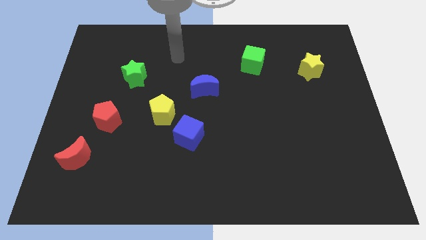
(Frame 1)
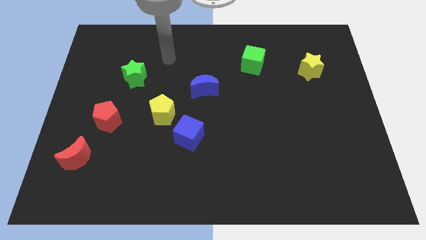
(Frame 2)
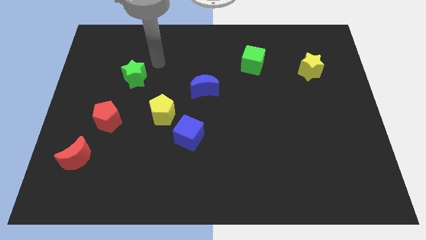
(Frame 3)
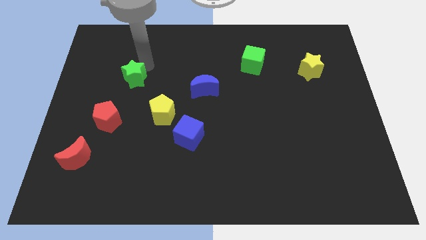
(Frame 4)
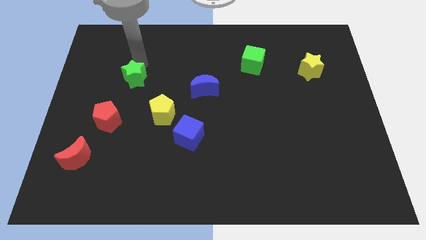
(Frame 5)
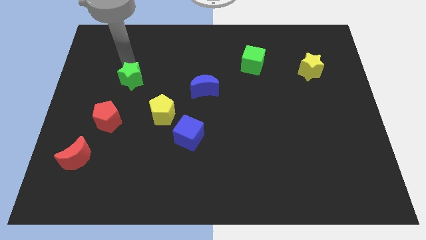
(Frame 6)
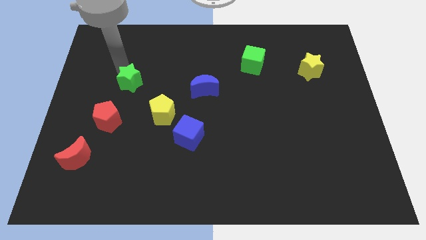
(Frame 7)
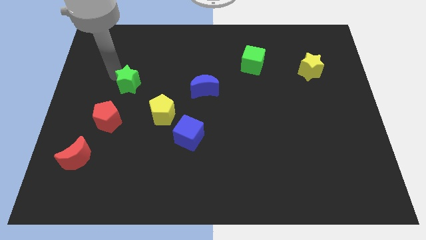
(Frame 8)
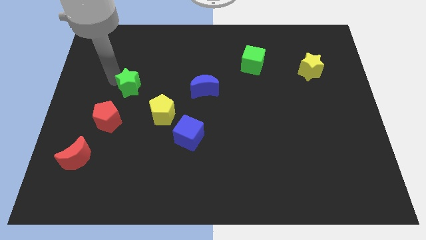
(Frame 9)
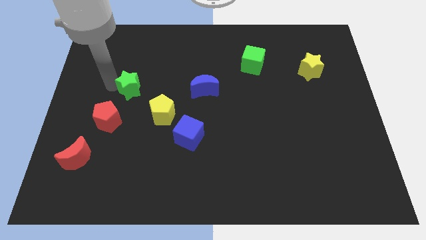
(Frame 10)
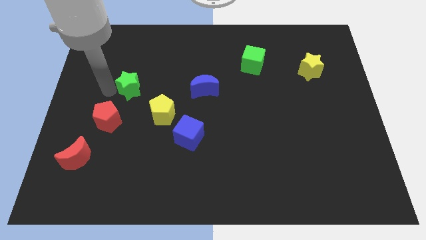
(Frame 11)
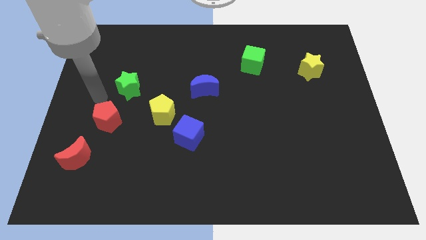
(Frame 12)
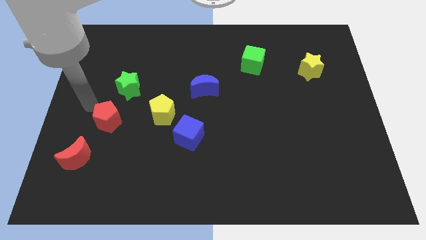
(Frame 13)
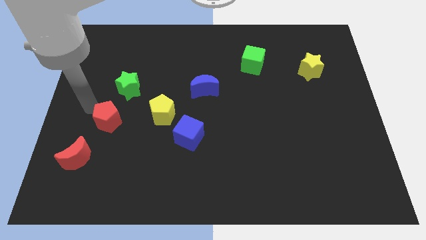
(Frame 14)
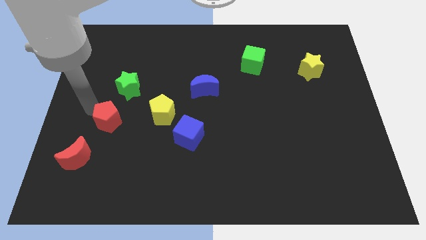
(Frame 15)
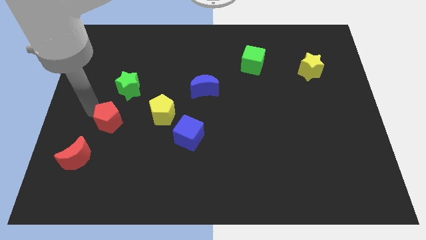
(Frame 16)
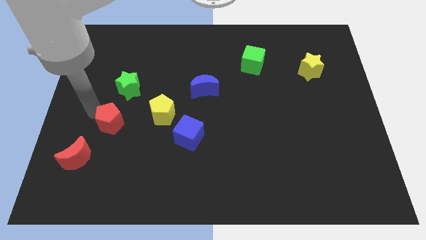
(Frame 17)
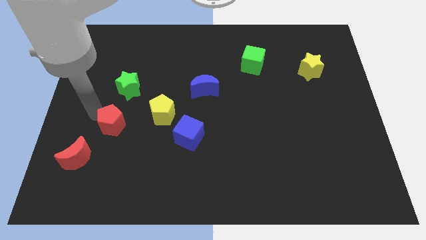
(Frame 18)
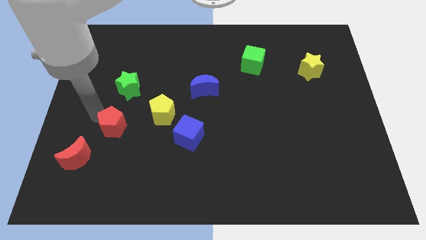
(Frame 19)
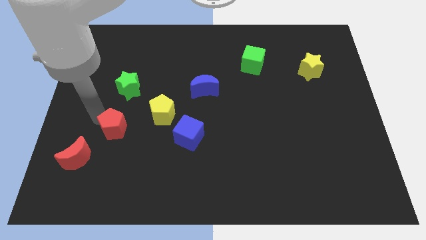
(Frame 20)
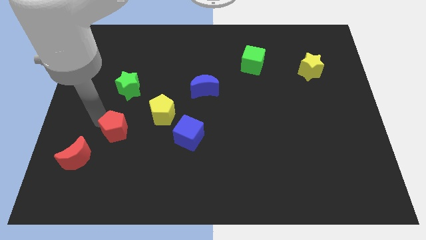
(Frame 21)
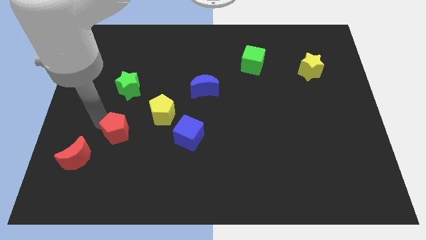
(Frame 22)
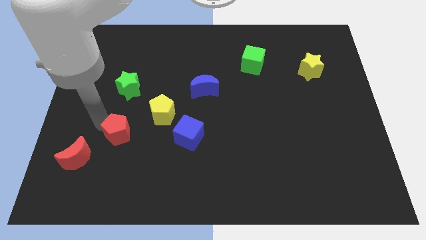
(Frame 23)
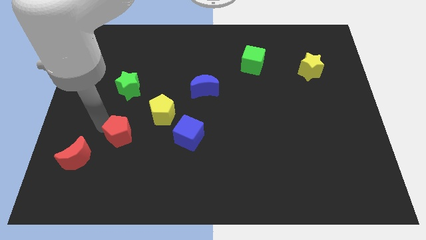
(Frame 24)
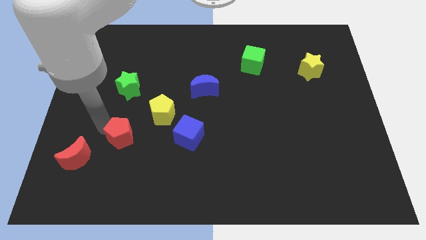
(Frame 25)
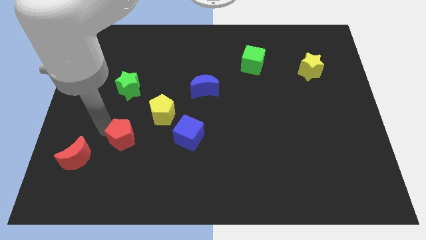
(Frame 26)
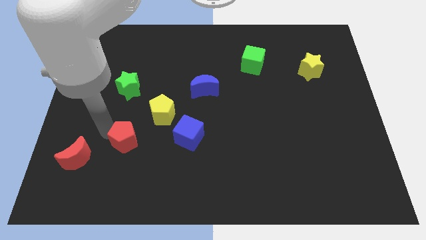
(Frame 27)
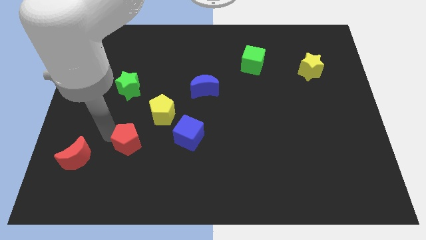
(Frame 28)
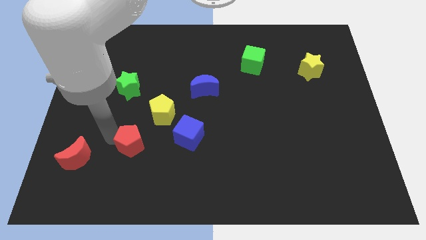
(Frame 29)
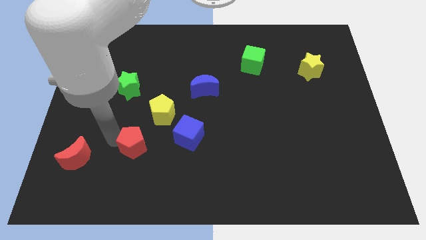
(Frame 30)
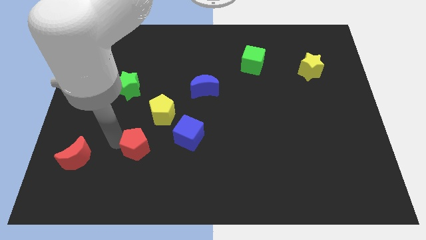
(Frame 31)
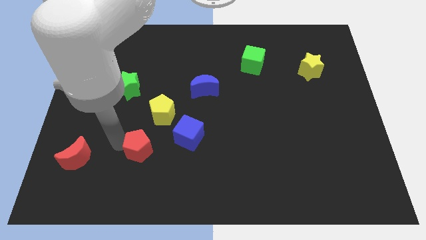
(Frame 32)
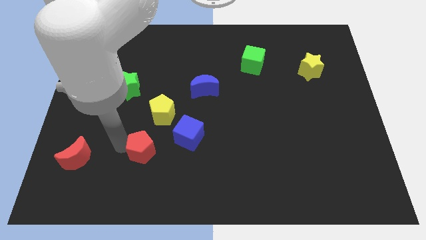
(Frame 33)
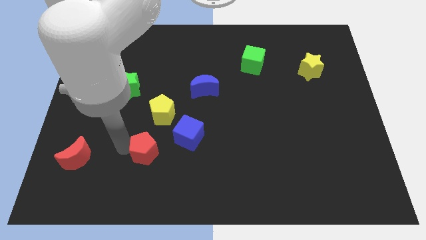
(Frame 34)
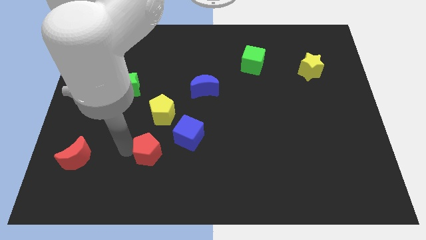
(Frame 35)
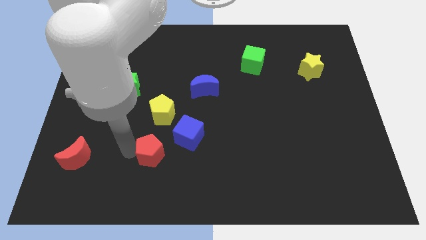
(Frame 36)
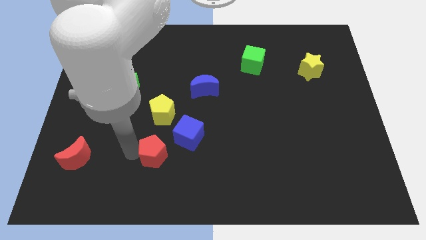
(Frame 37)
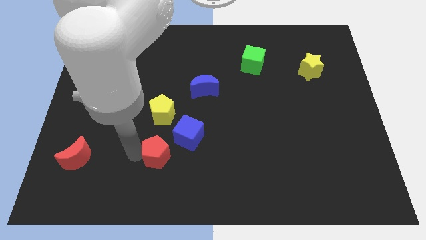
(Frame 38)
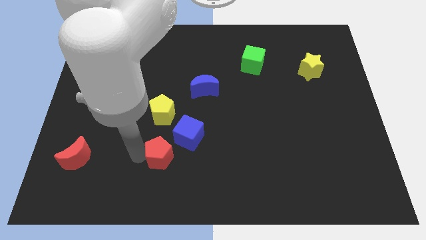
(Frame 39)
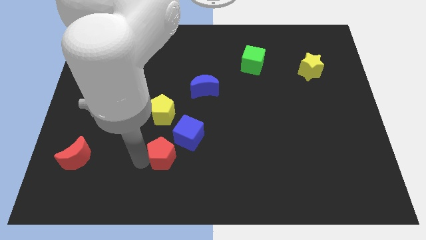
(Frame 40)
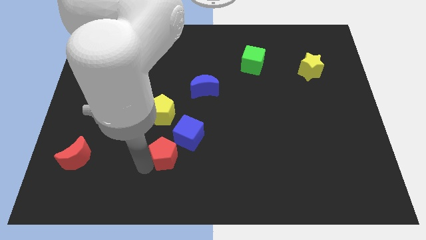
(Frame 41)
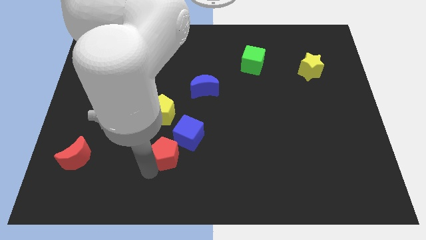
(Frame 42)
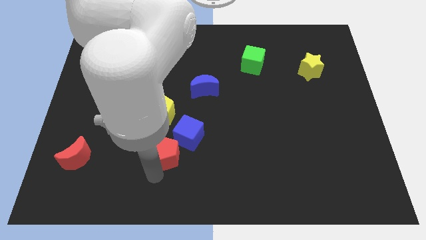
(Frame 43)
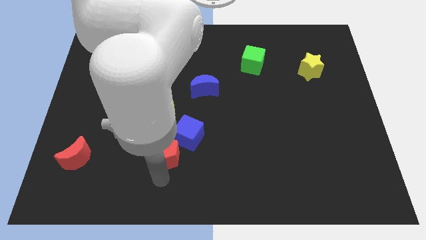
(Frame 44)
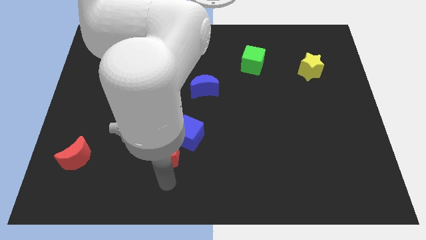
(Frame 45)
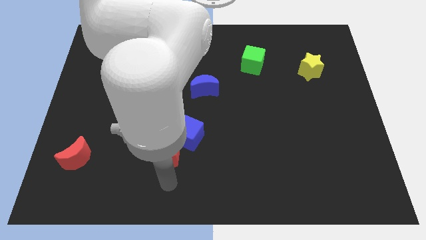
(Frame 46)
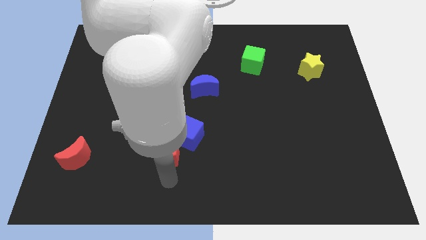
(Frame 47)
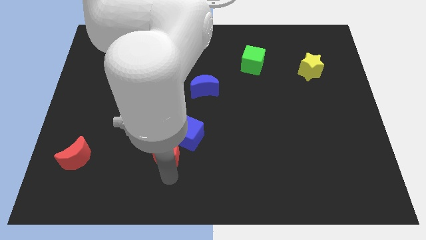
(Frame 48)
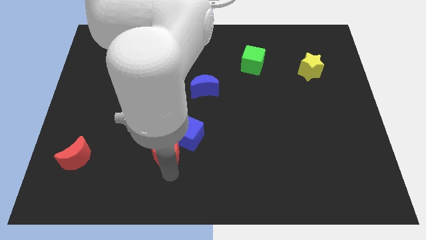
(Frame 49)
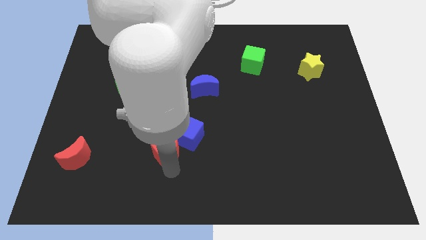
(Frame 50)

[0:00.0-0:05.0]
slide the red pentagon towards the blue cube

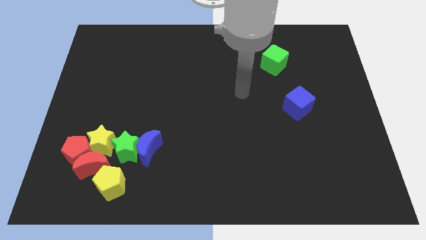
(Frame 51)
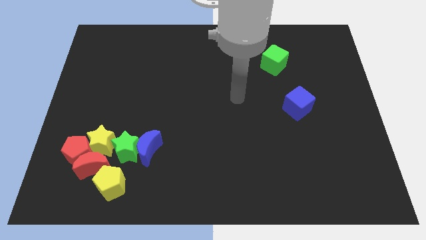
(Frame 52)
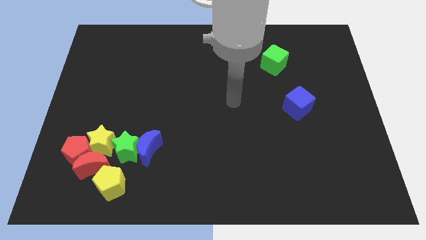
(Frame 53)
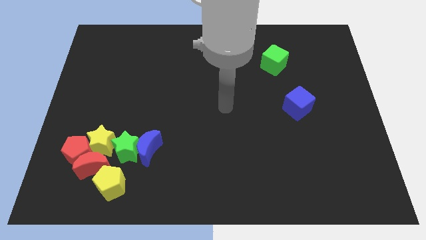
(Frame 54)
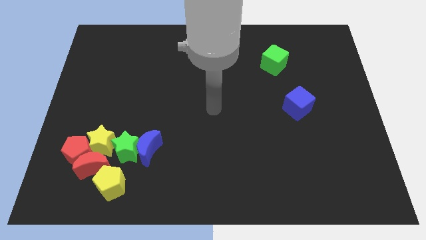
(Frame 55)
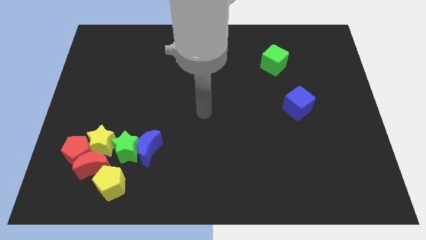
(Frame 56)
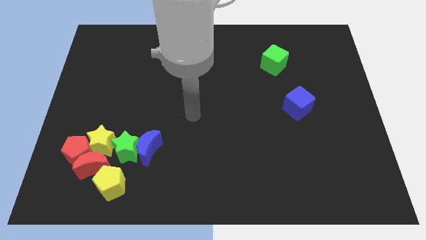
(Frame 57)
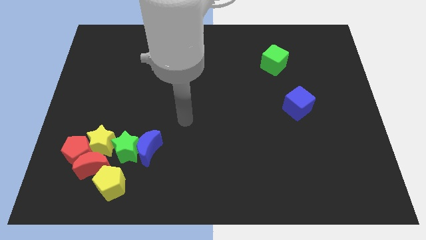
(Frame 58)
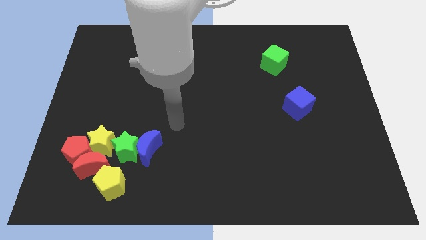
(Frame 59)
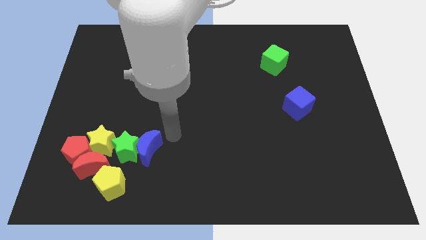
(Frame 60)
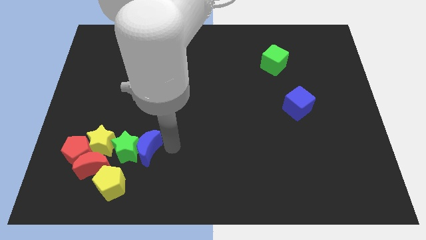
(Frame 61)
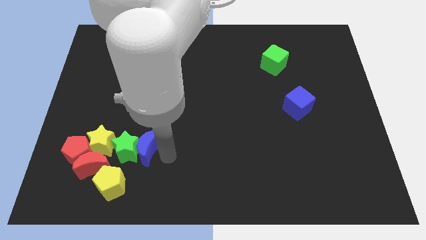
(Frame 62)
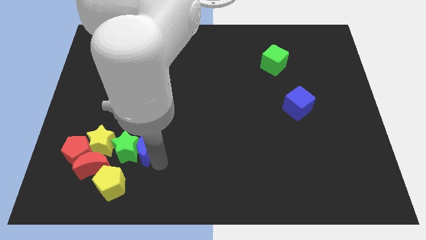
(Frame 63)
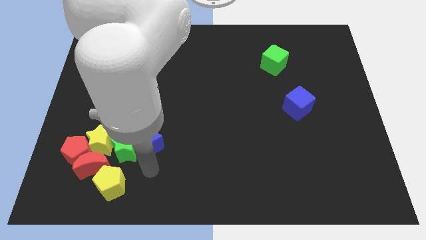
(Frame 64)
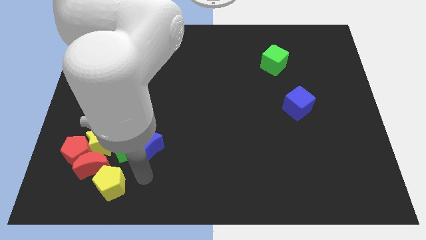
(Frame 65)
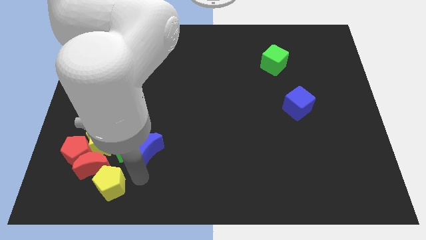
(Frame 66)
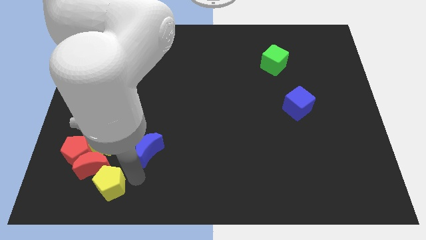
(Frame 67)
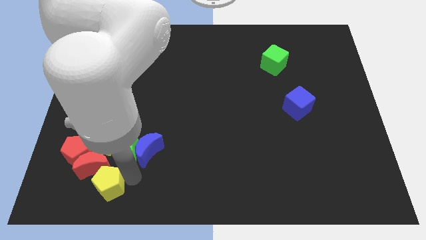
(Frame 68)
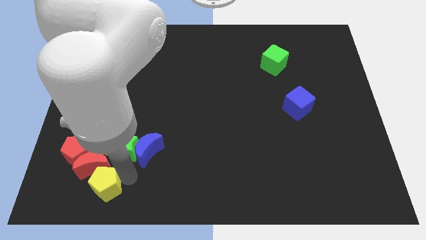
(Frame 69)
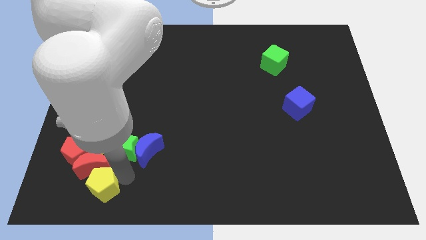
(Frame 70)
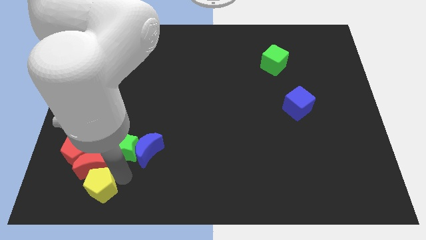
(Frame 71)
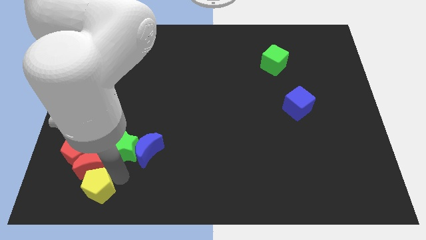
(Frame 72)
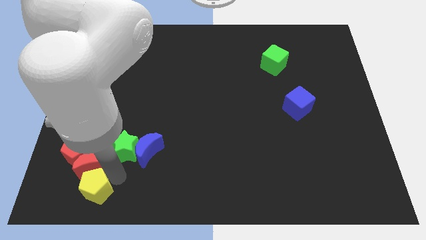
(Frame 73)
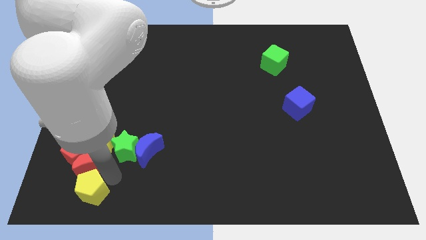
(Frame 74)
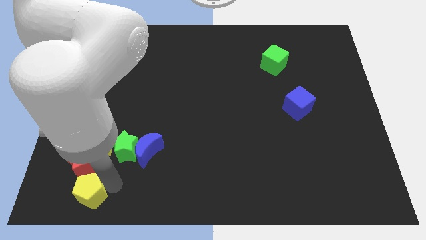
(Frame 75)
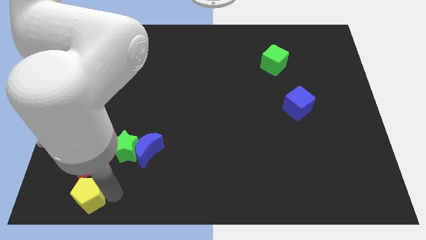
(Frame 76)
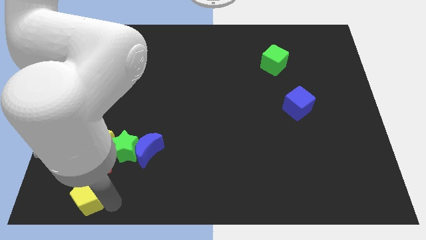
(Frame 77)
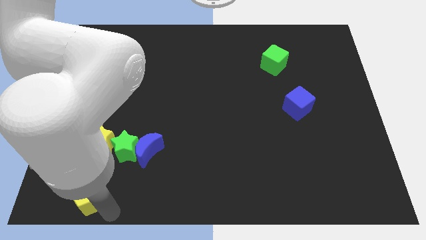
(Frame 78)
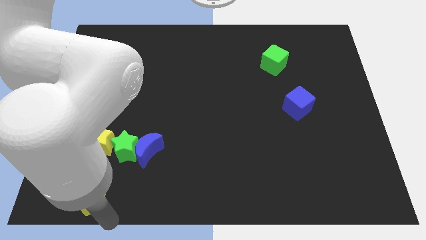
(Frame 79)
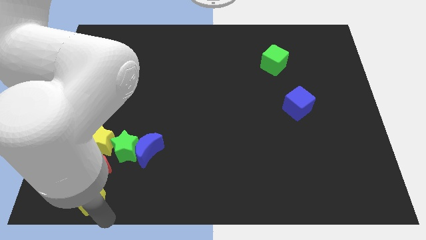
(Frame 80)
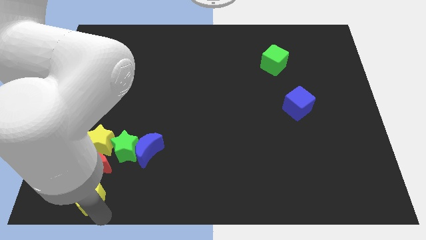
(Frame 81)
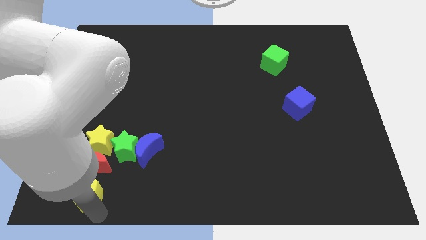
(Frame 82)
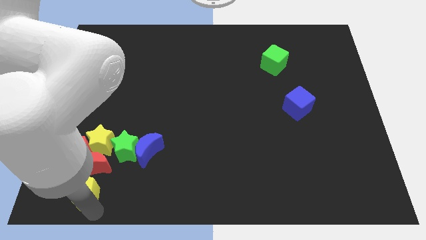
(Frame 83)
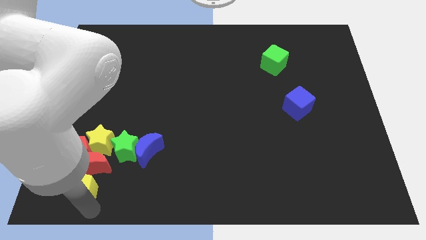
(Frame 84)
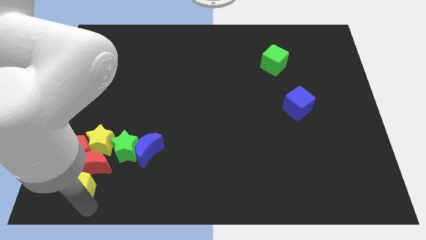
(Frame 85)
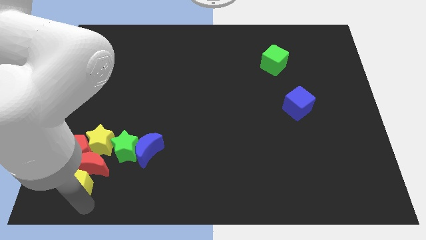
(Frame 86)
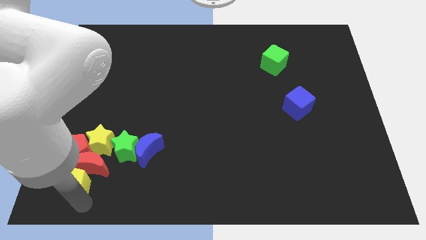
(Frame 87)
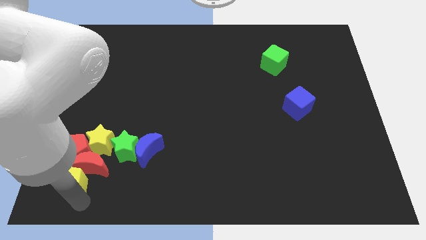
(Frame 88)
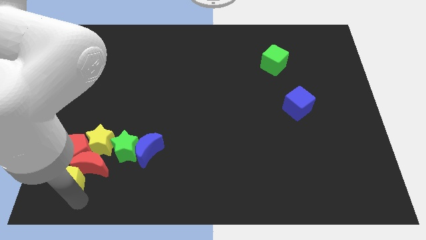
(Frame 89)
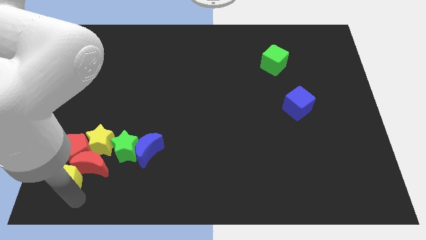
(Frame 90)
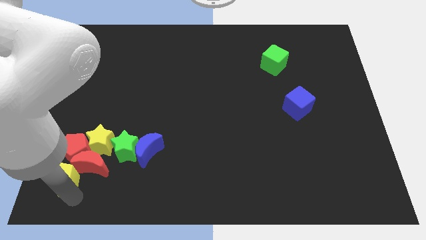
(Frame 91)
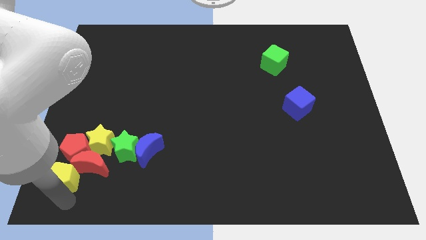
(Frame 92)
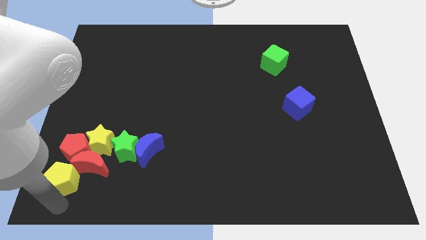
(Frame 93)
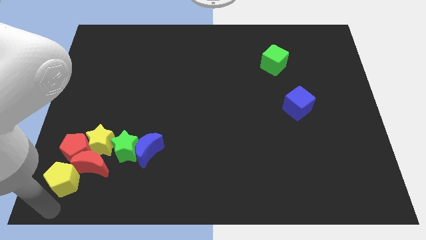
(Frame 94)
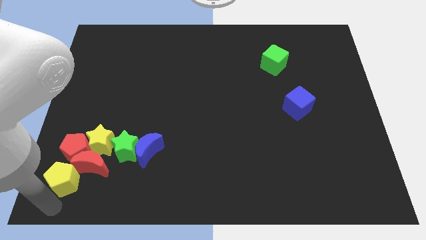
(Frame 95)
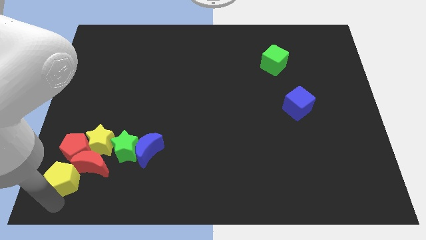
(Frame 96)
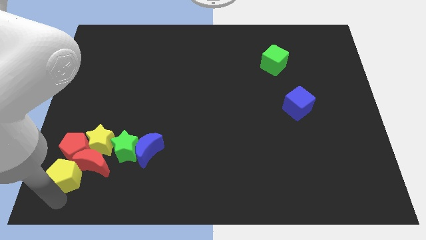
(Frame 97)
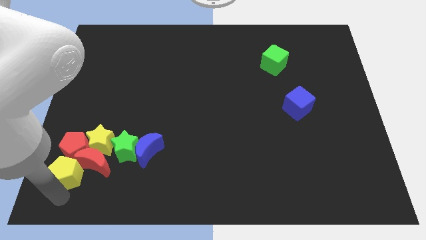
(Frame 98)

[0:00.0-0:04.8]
push the yellow pentagon next to the red pentagon
